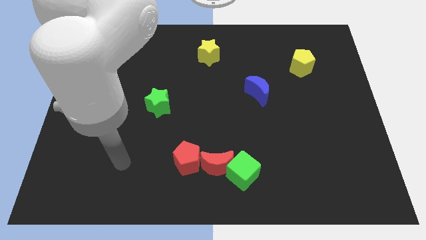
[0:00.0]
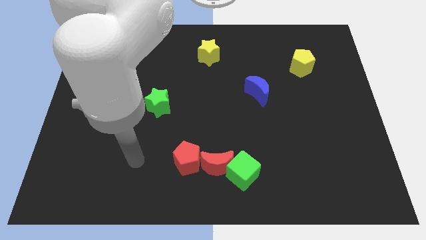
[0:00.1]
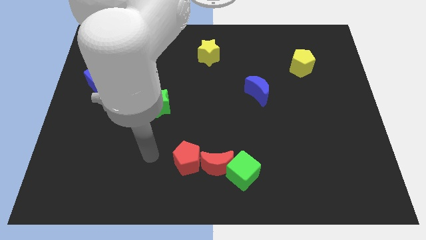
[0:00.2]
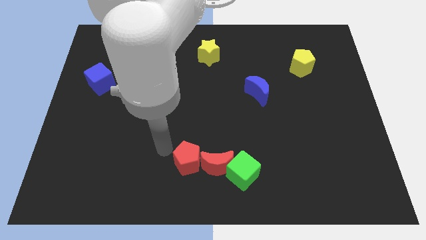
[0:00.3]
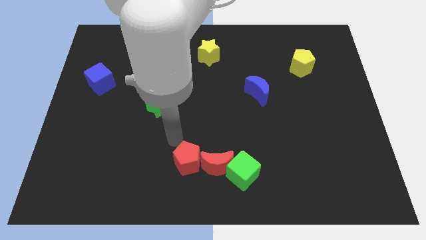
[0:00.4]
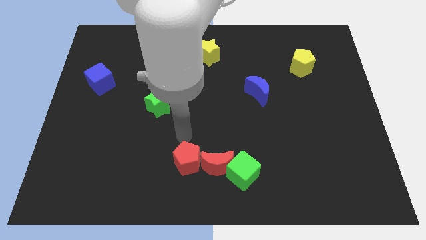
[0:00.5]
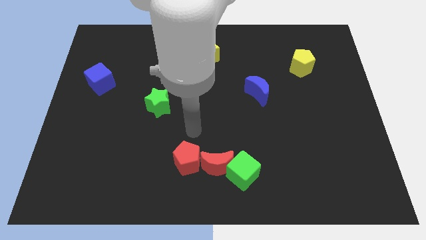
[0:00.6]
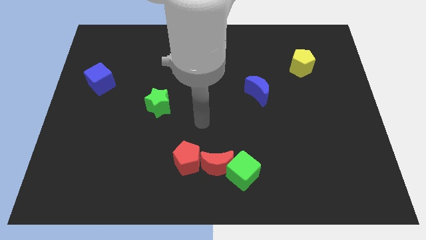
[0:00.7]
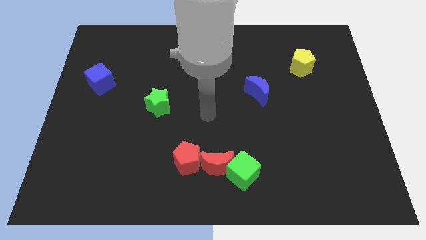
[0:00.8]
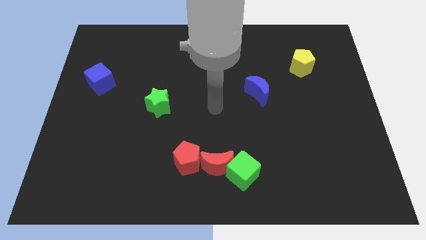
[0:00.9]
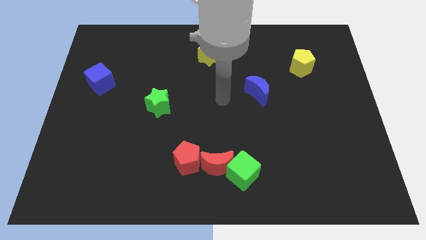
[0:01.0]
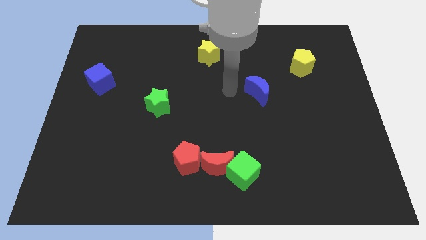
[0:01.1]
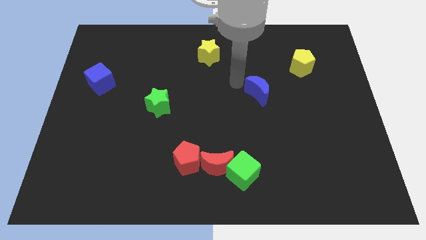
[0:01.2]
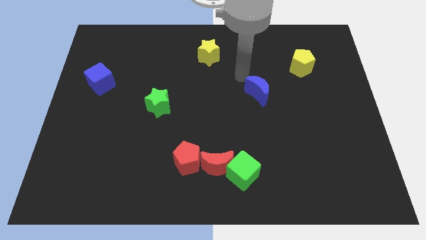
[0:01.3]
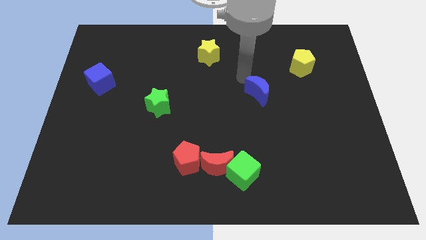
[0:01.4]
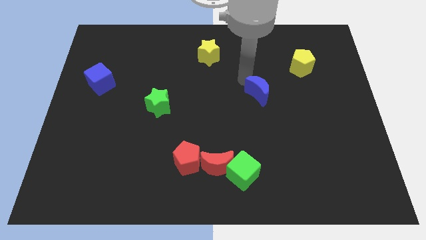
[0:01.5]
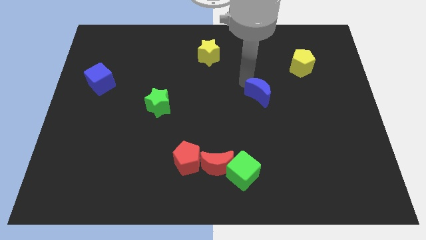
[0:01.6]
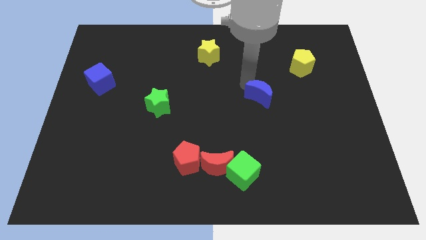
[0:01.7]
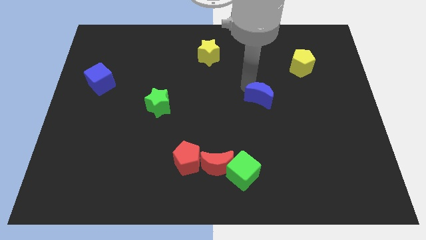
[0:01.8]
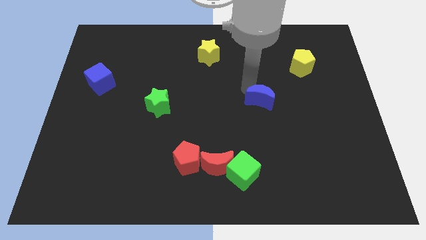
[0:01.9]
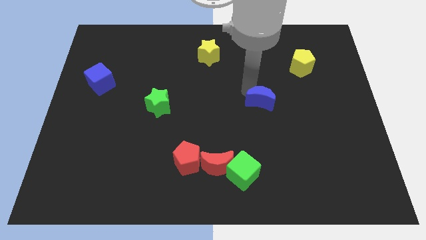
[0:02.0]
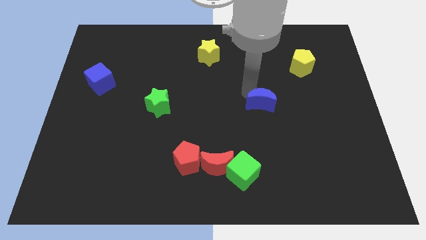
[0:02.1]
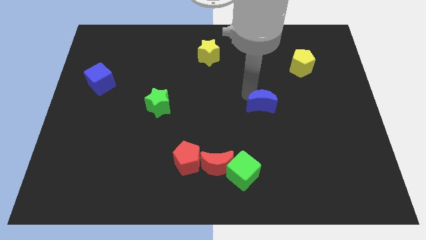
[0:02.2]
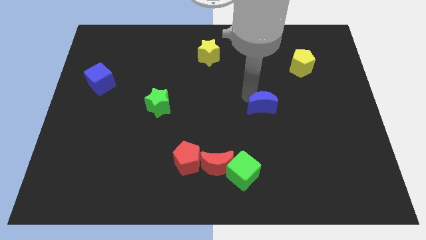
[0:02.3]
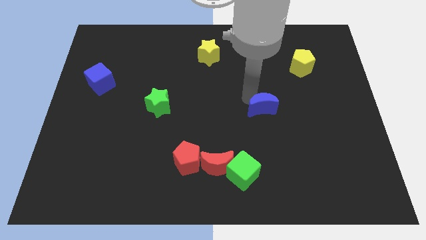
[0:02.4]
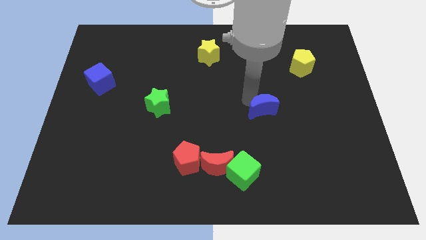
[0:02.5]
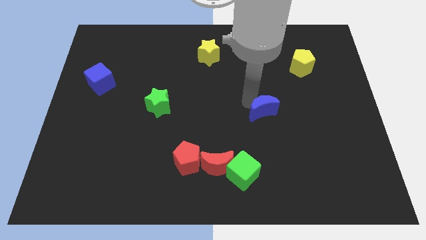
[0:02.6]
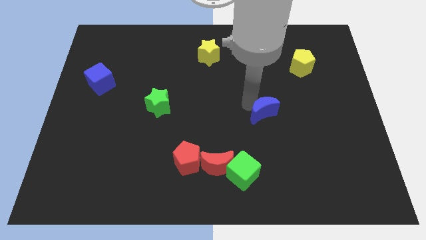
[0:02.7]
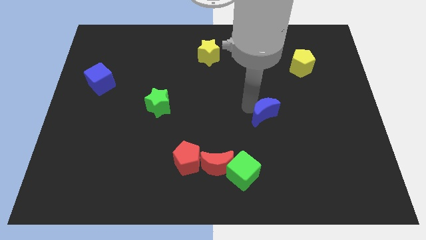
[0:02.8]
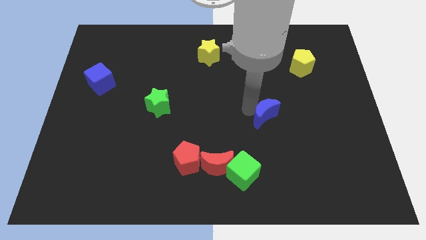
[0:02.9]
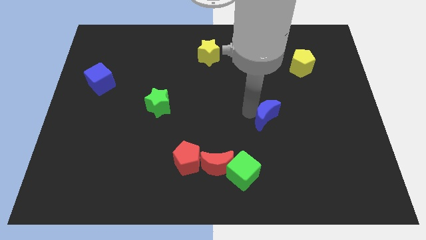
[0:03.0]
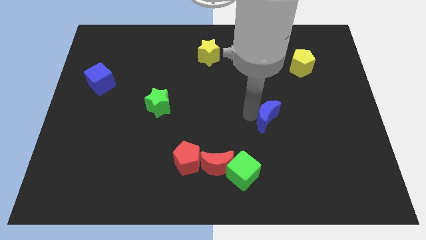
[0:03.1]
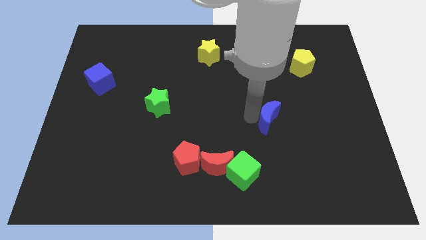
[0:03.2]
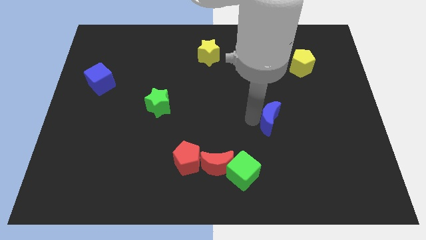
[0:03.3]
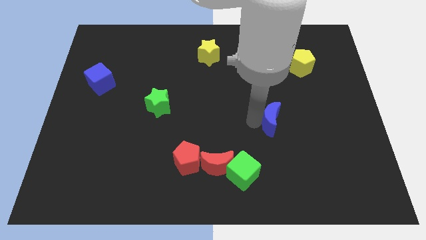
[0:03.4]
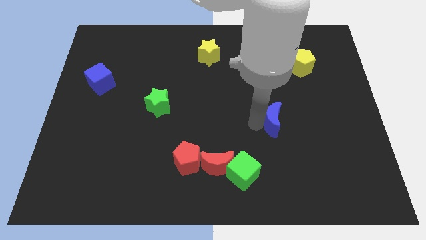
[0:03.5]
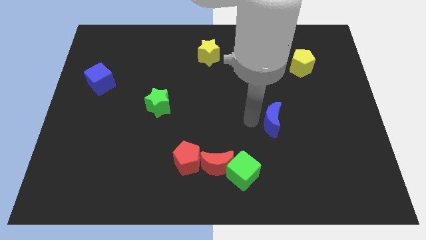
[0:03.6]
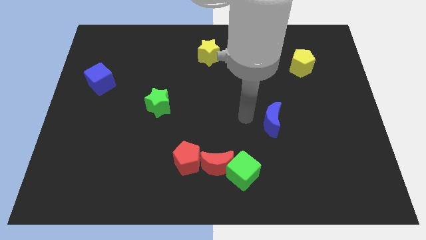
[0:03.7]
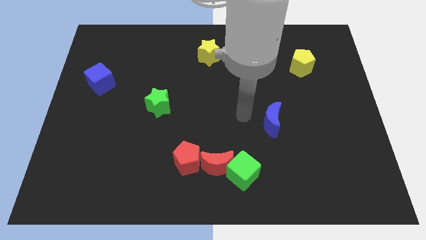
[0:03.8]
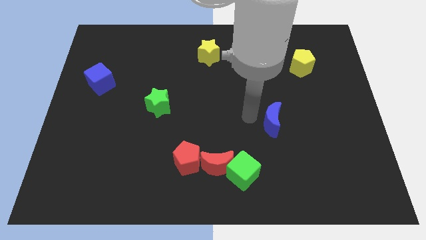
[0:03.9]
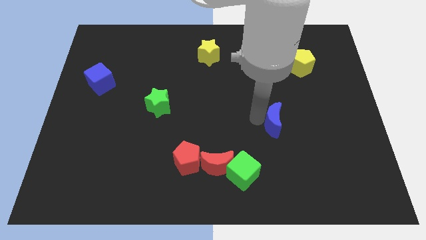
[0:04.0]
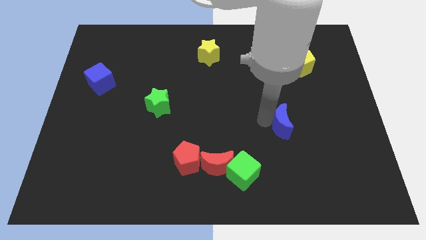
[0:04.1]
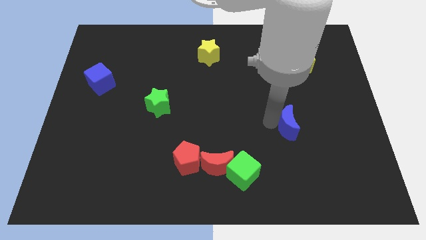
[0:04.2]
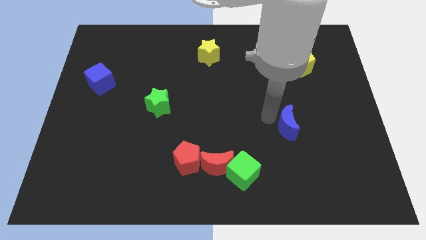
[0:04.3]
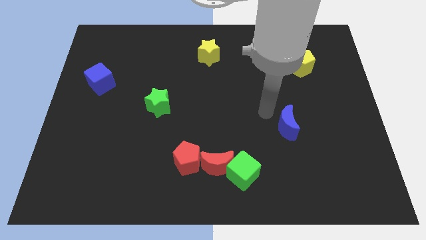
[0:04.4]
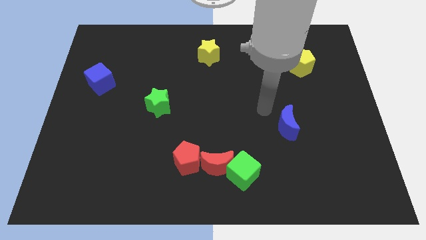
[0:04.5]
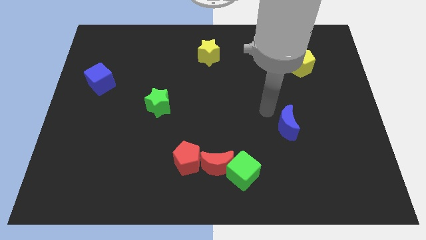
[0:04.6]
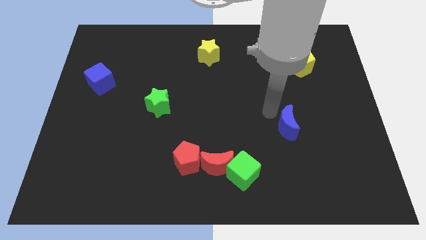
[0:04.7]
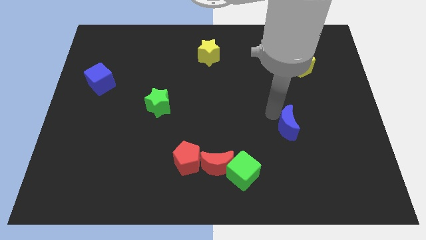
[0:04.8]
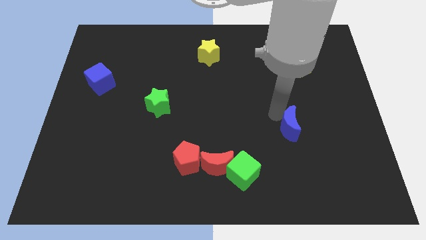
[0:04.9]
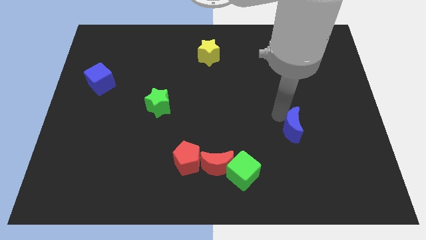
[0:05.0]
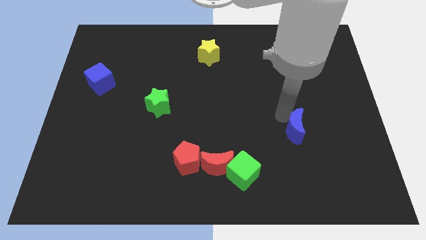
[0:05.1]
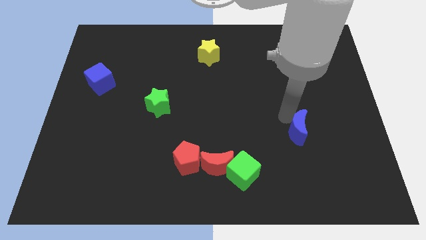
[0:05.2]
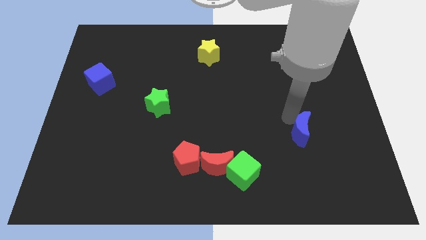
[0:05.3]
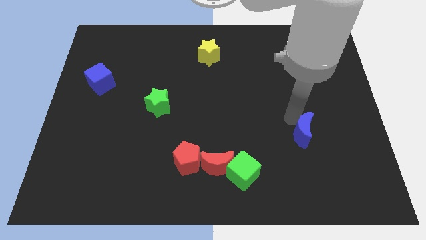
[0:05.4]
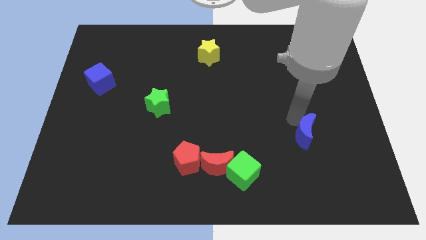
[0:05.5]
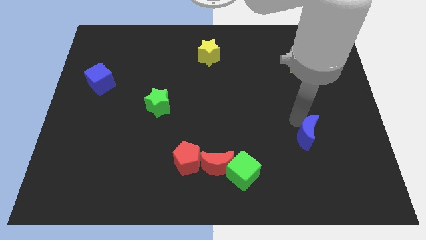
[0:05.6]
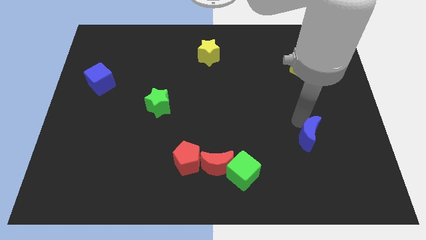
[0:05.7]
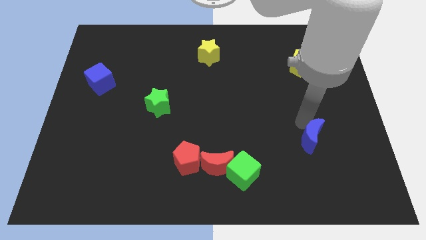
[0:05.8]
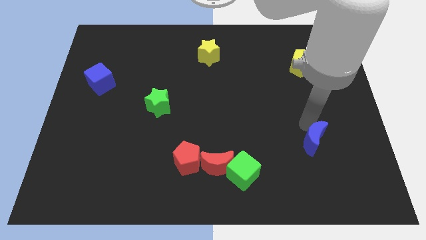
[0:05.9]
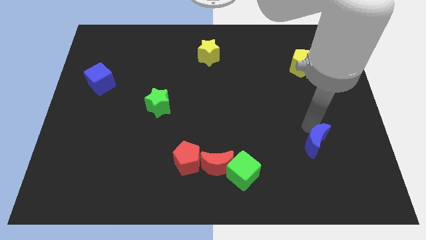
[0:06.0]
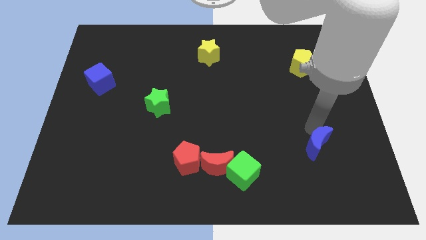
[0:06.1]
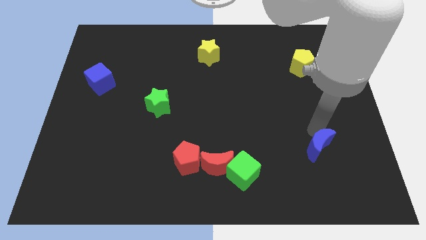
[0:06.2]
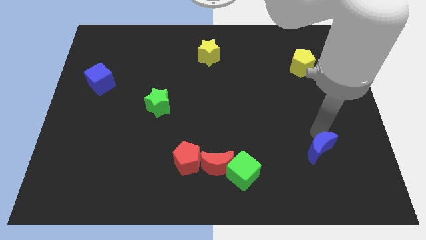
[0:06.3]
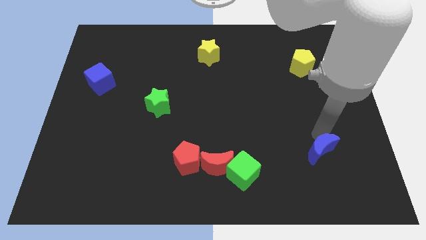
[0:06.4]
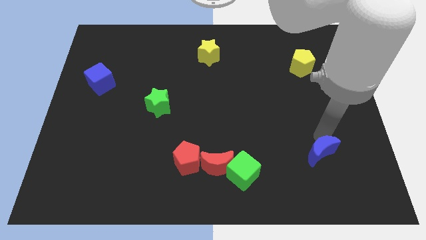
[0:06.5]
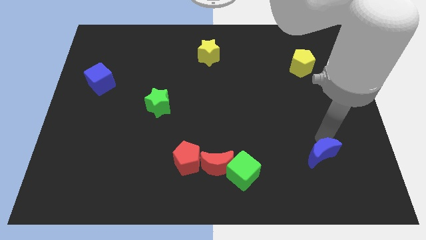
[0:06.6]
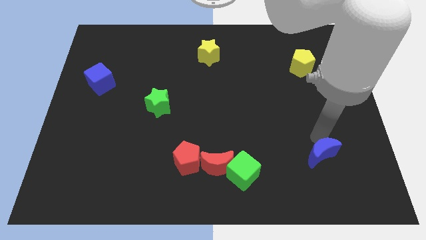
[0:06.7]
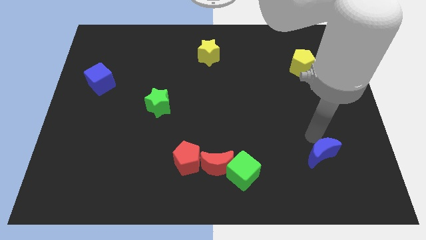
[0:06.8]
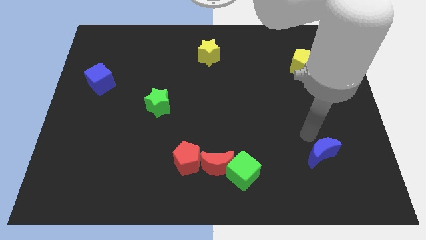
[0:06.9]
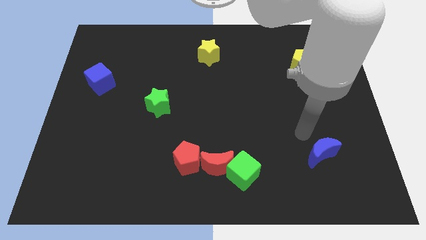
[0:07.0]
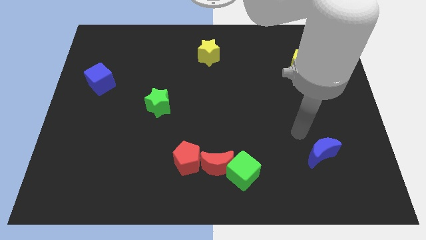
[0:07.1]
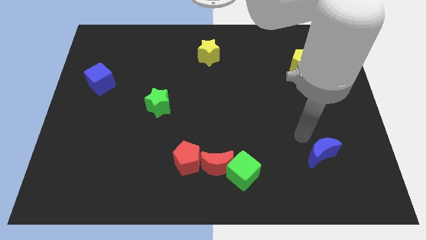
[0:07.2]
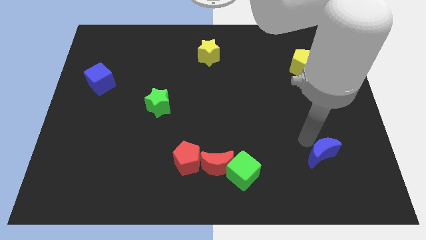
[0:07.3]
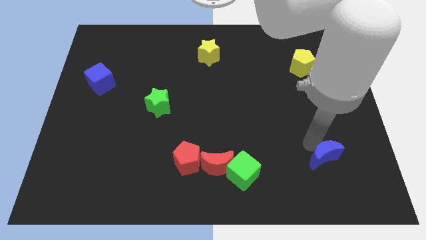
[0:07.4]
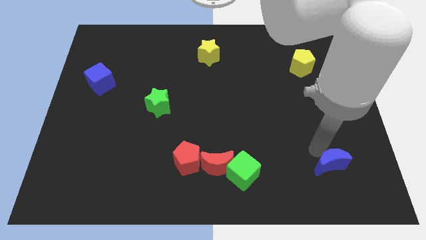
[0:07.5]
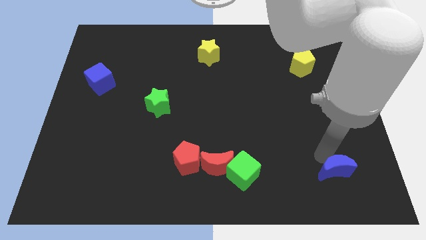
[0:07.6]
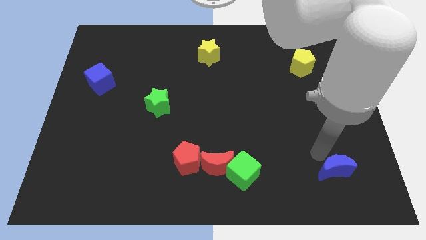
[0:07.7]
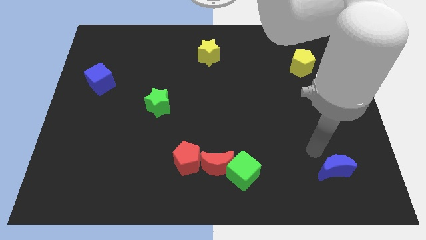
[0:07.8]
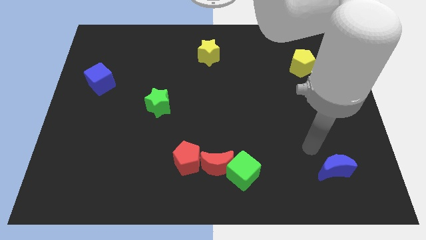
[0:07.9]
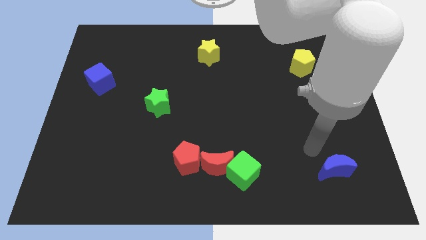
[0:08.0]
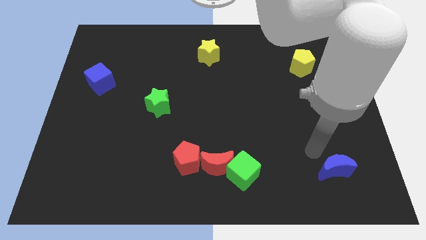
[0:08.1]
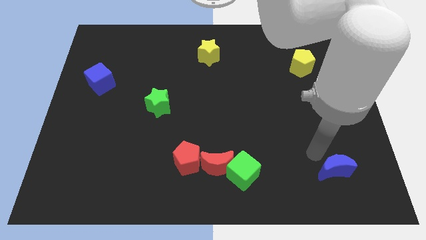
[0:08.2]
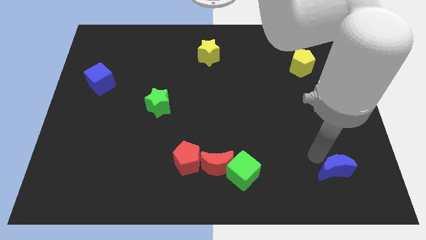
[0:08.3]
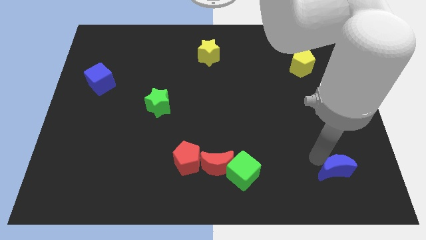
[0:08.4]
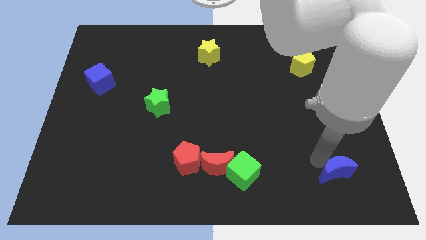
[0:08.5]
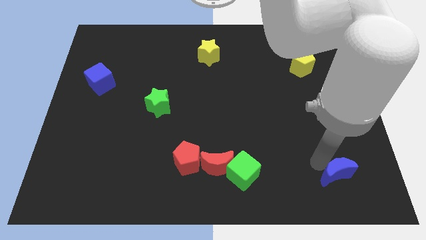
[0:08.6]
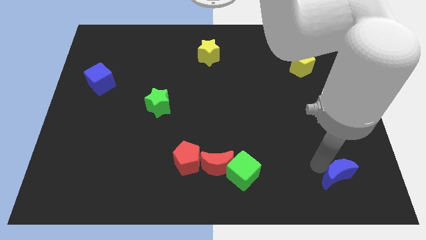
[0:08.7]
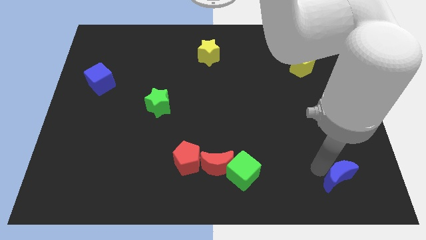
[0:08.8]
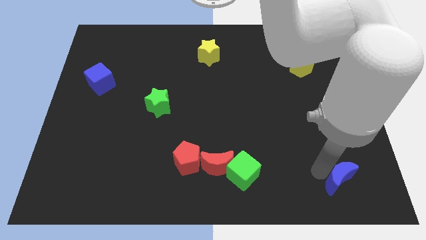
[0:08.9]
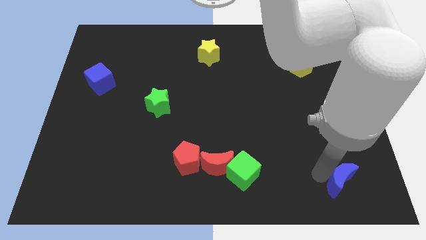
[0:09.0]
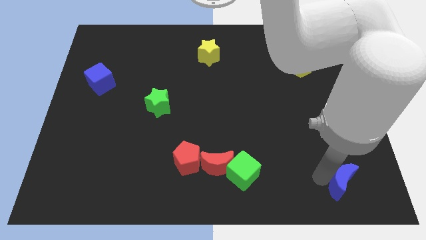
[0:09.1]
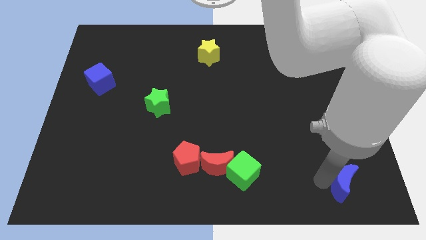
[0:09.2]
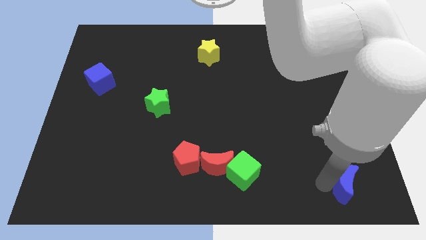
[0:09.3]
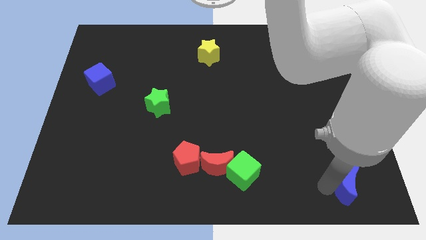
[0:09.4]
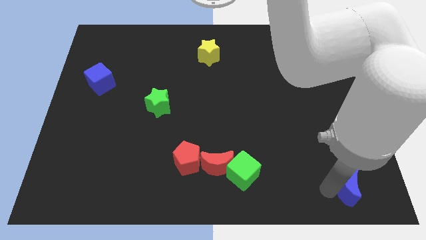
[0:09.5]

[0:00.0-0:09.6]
slide the blue moon to the bottom right of the board
